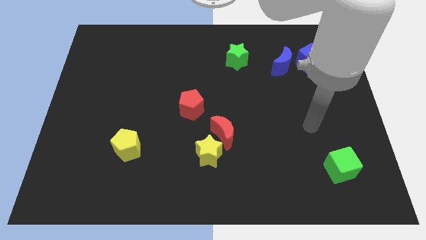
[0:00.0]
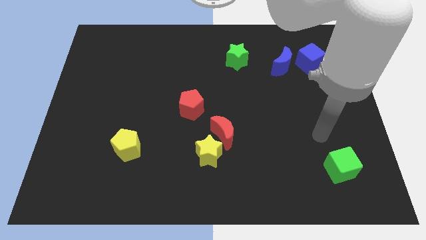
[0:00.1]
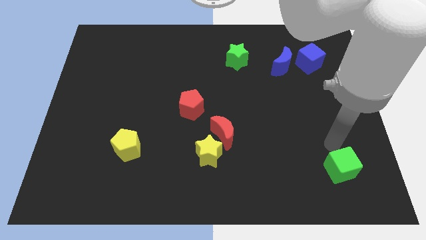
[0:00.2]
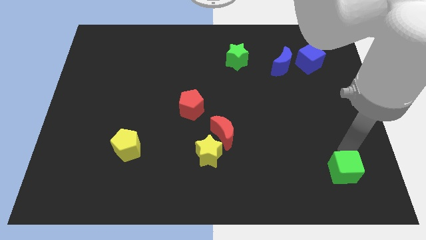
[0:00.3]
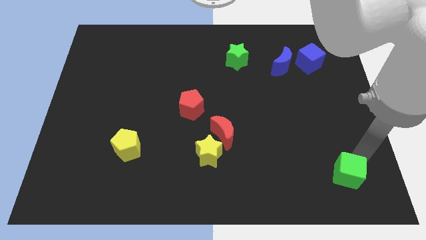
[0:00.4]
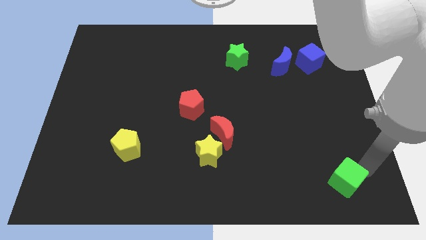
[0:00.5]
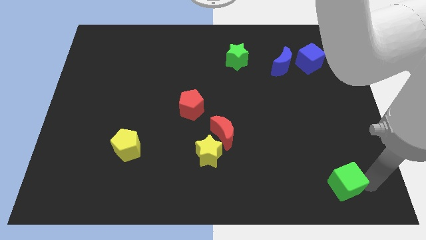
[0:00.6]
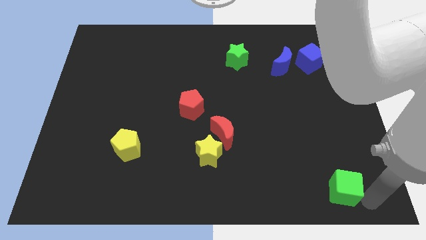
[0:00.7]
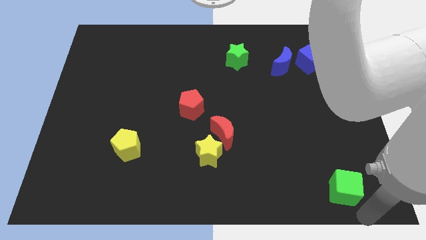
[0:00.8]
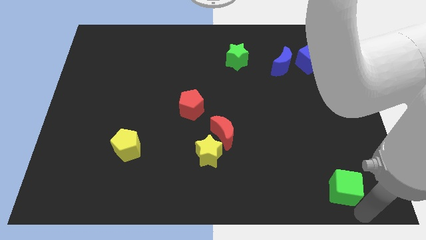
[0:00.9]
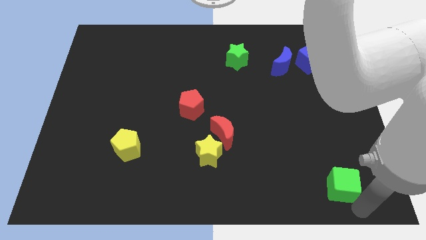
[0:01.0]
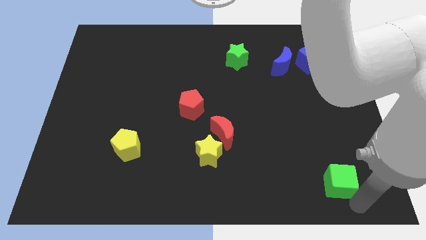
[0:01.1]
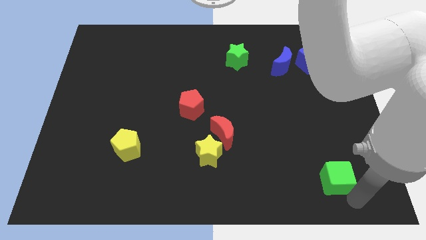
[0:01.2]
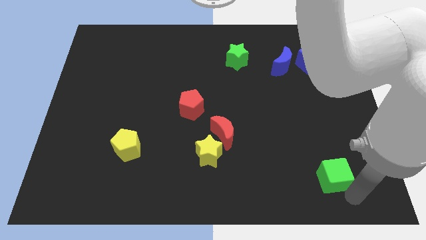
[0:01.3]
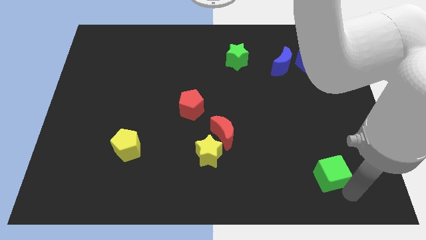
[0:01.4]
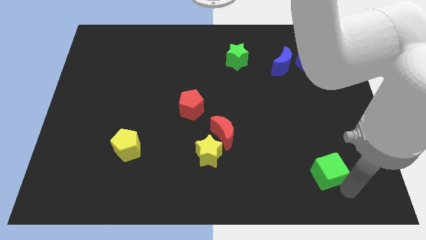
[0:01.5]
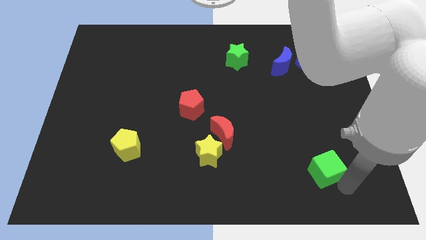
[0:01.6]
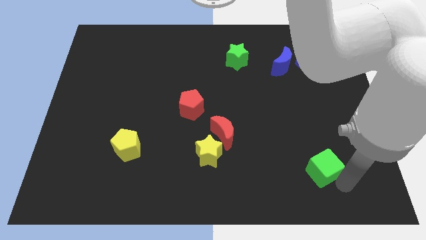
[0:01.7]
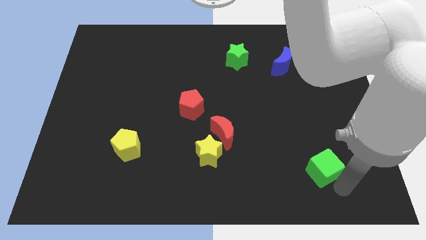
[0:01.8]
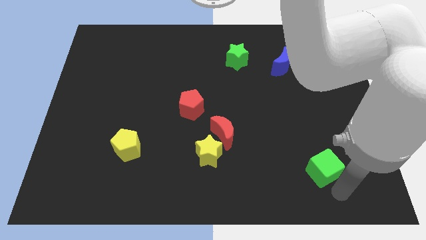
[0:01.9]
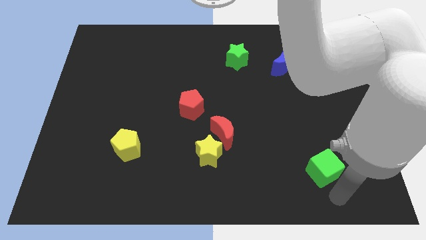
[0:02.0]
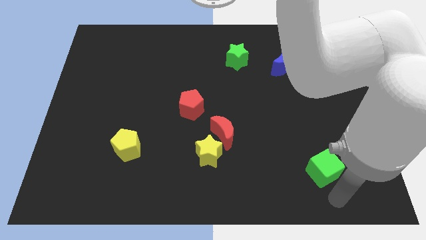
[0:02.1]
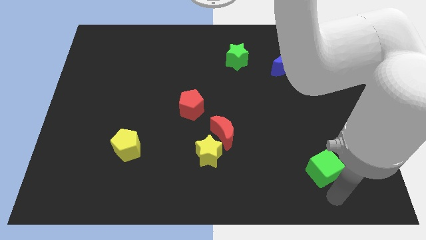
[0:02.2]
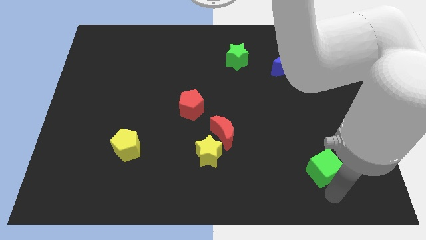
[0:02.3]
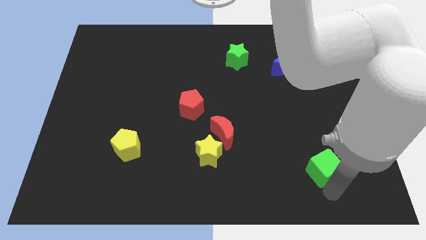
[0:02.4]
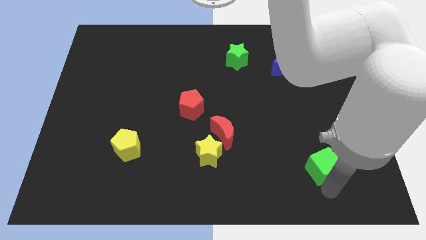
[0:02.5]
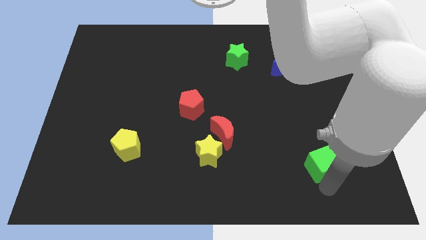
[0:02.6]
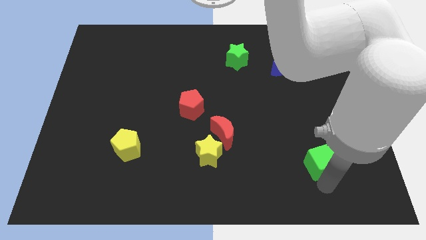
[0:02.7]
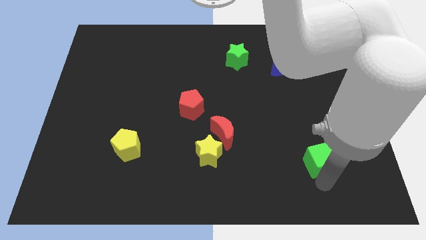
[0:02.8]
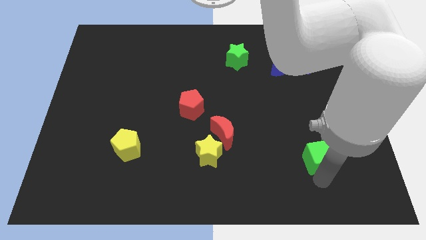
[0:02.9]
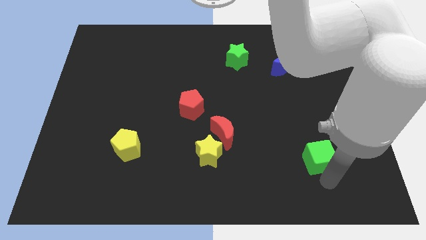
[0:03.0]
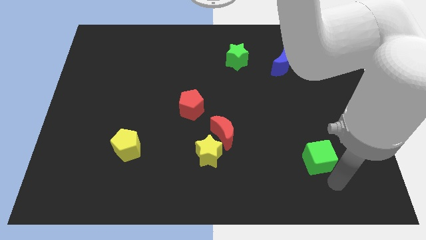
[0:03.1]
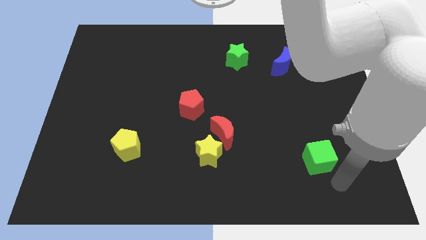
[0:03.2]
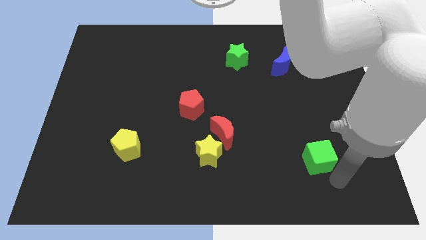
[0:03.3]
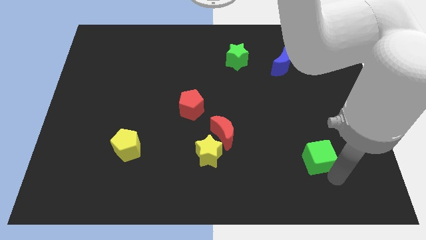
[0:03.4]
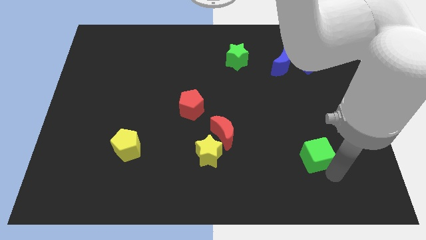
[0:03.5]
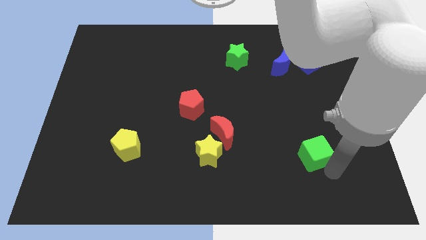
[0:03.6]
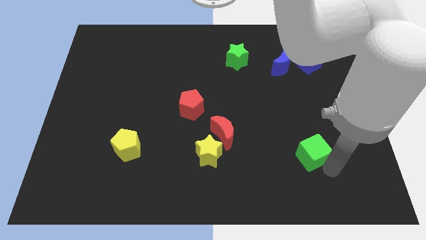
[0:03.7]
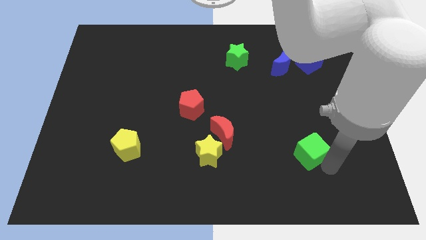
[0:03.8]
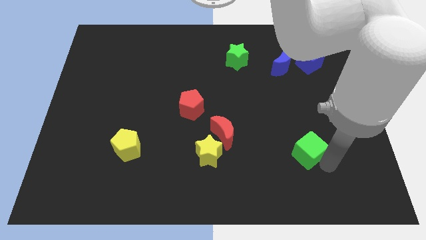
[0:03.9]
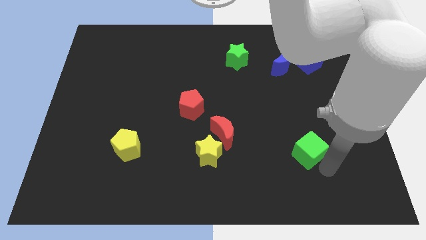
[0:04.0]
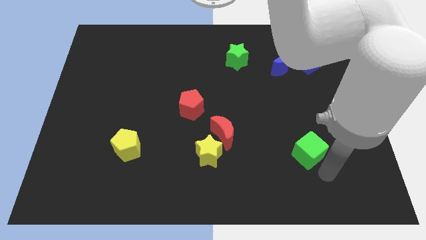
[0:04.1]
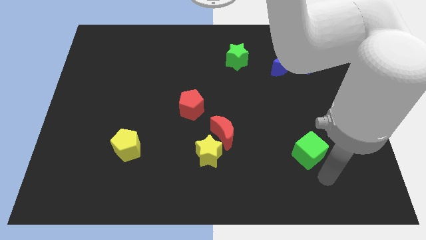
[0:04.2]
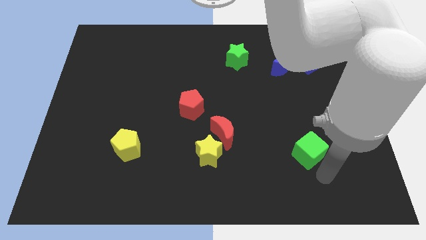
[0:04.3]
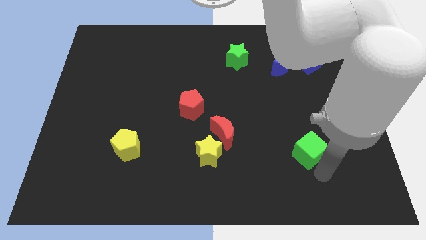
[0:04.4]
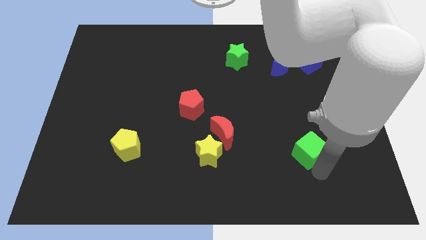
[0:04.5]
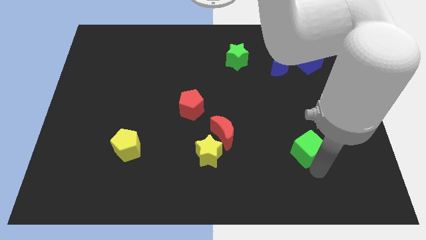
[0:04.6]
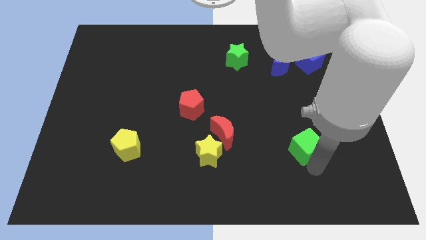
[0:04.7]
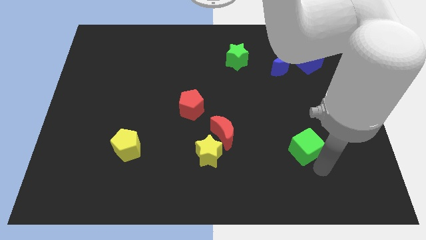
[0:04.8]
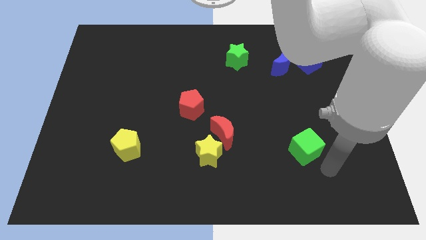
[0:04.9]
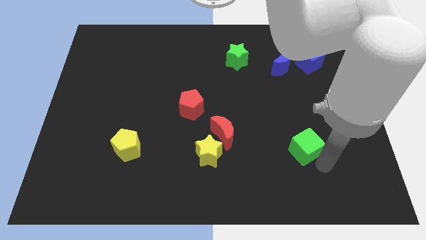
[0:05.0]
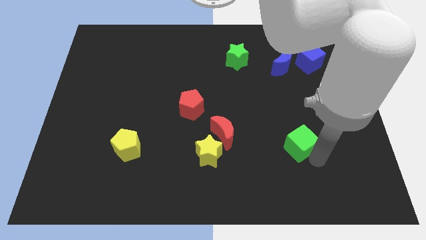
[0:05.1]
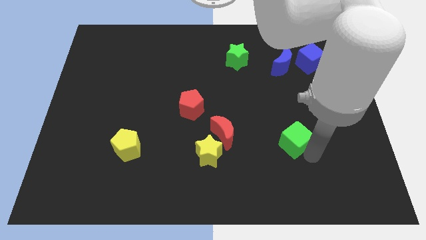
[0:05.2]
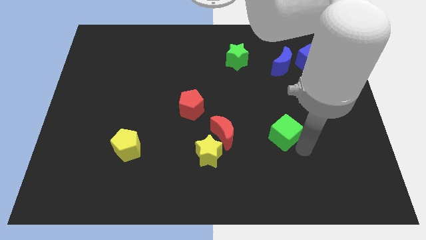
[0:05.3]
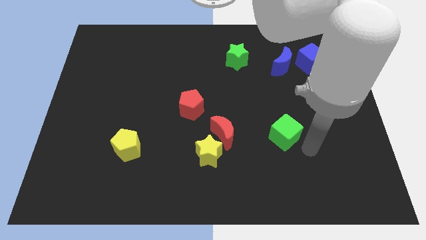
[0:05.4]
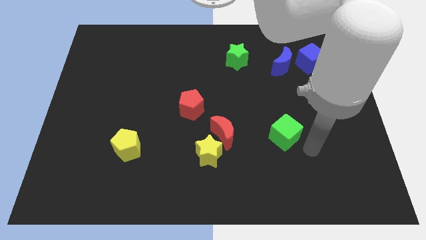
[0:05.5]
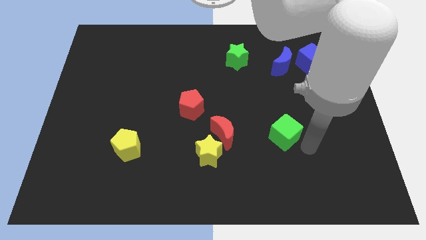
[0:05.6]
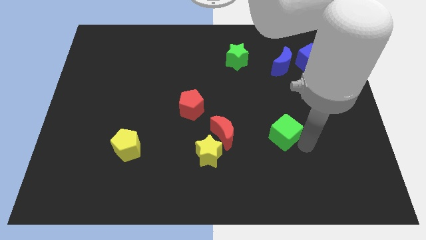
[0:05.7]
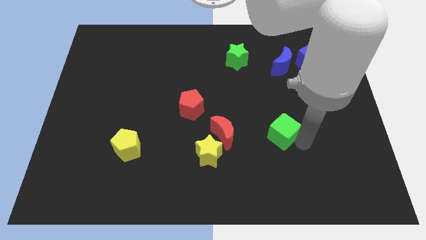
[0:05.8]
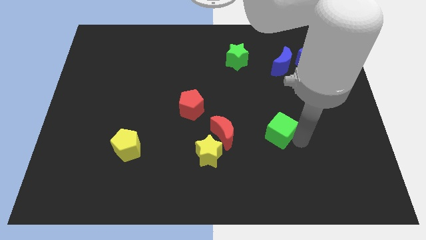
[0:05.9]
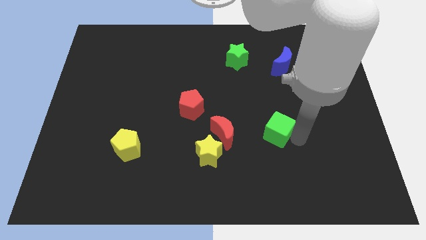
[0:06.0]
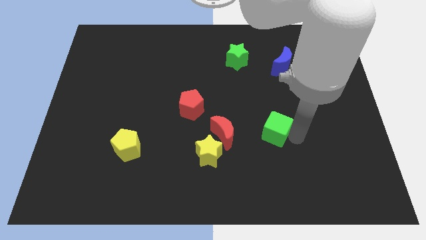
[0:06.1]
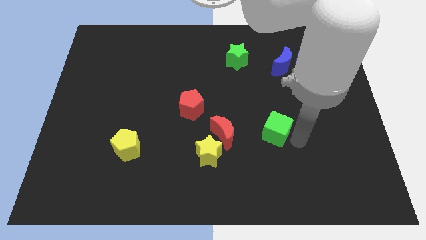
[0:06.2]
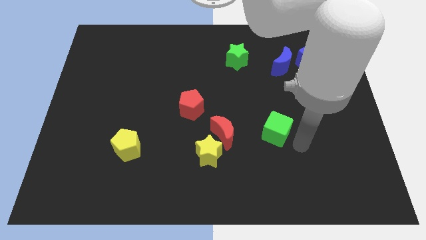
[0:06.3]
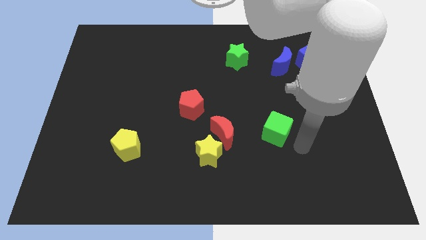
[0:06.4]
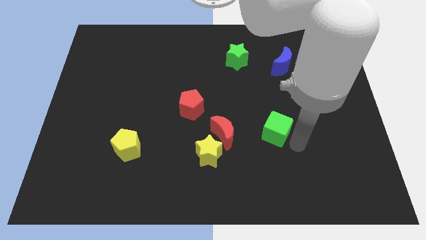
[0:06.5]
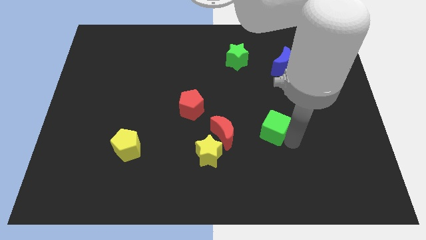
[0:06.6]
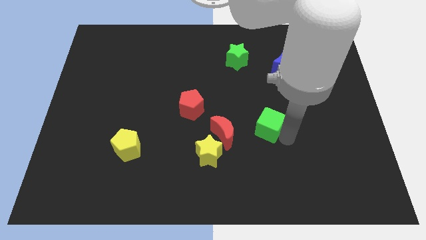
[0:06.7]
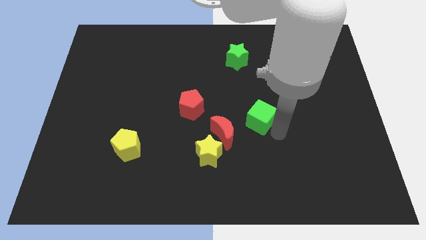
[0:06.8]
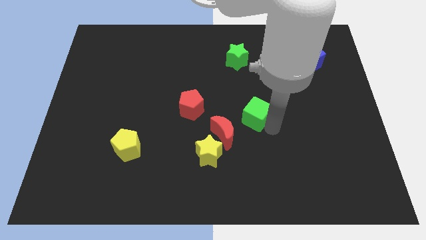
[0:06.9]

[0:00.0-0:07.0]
push the green cube right of the red pentagon

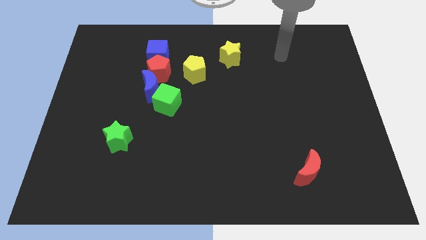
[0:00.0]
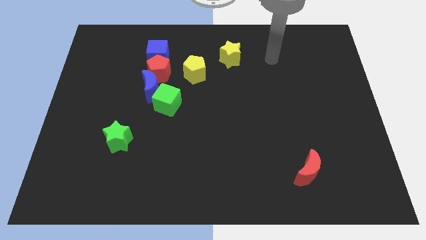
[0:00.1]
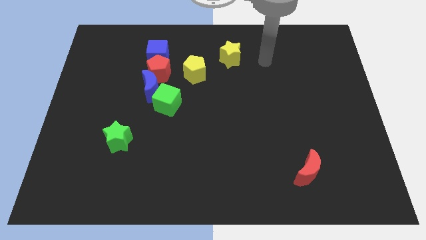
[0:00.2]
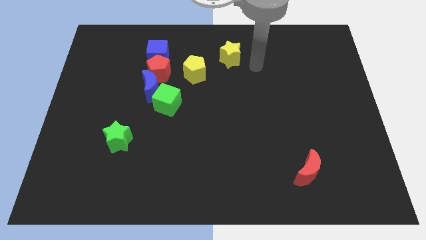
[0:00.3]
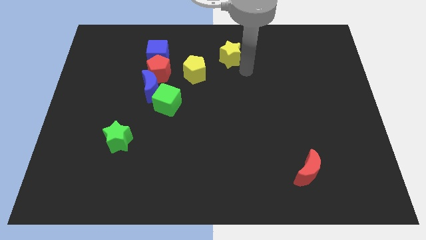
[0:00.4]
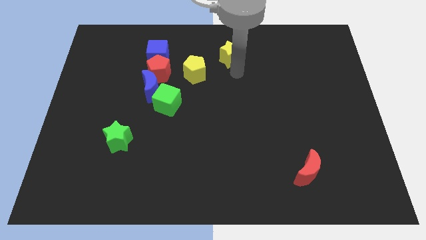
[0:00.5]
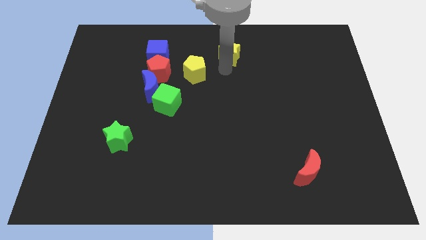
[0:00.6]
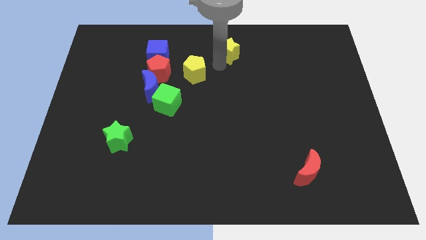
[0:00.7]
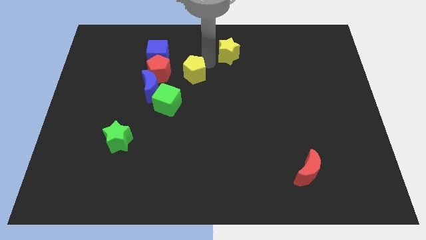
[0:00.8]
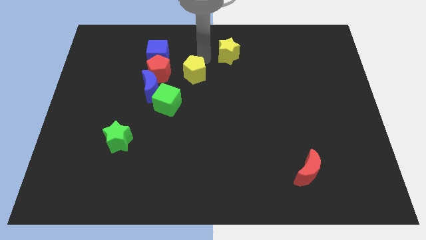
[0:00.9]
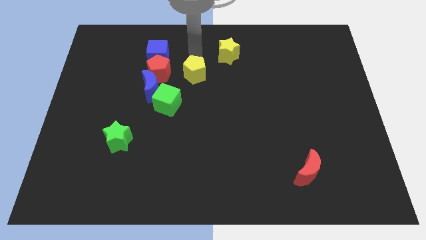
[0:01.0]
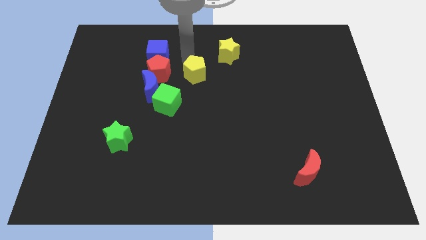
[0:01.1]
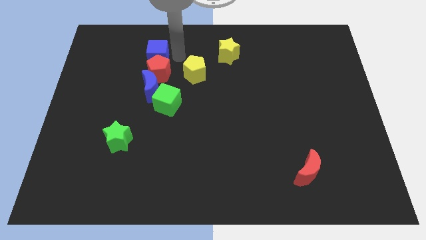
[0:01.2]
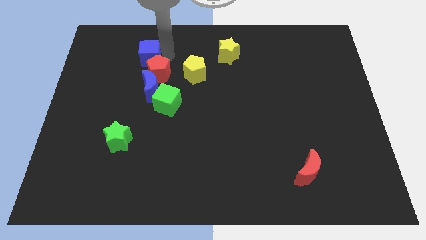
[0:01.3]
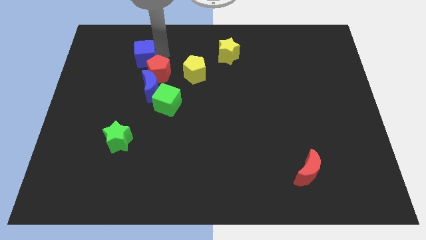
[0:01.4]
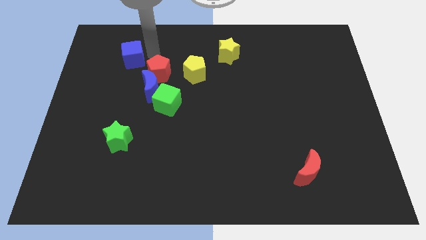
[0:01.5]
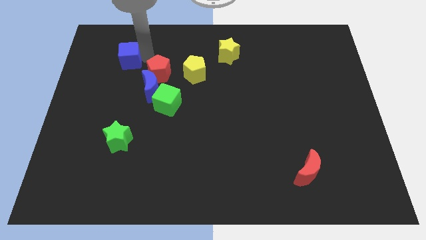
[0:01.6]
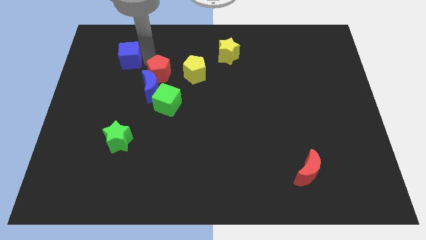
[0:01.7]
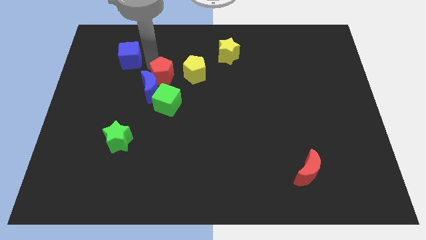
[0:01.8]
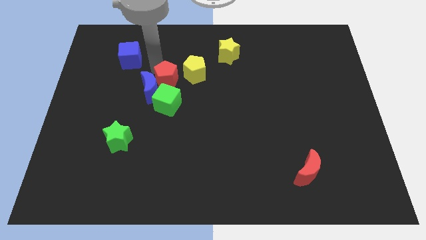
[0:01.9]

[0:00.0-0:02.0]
move the red pentagon to the bottom left of the yellow pentagon
